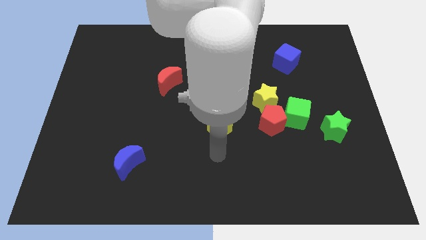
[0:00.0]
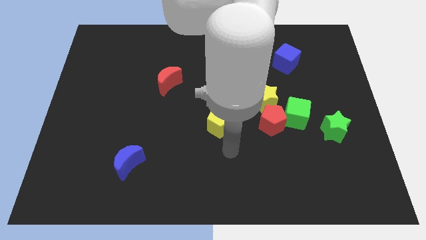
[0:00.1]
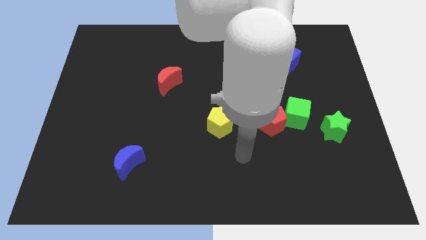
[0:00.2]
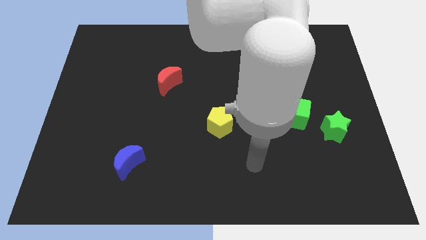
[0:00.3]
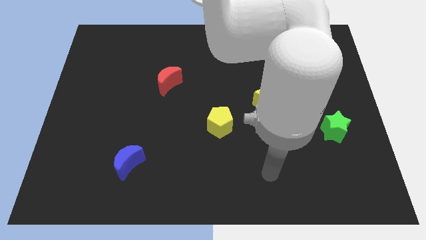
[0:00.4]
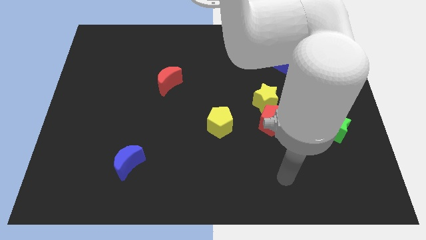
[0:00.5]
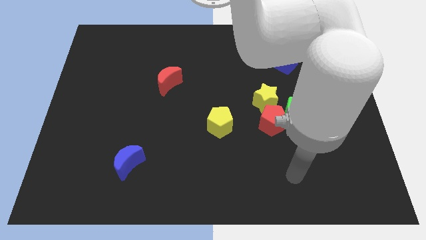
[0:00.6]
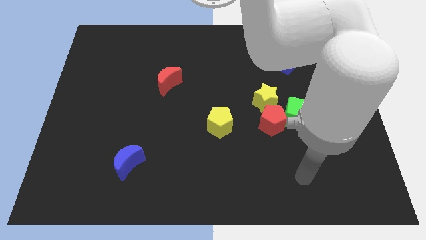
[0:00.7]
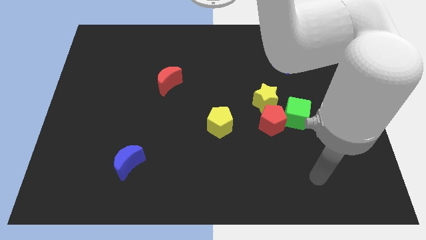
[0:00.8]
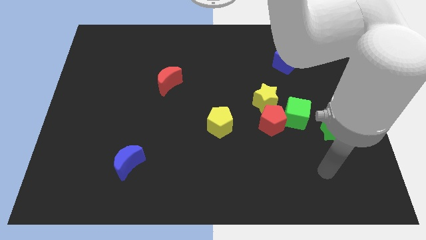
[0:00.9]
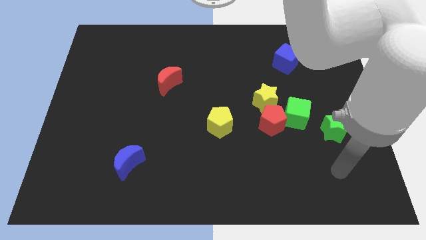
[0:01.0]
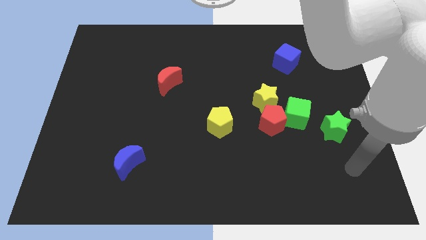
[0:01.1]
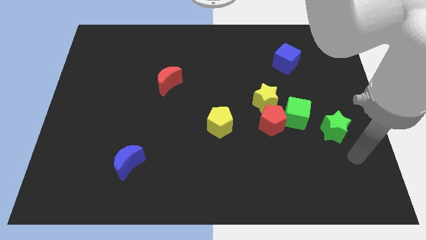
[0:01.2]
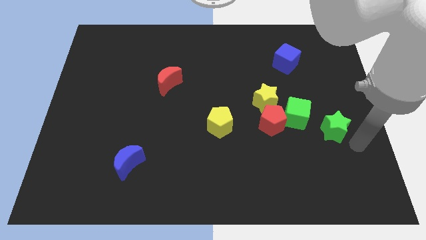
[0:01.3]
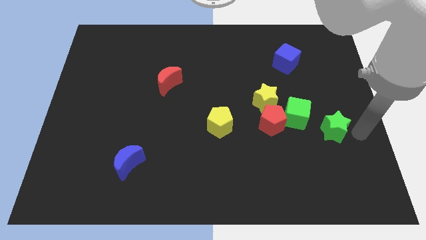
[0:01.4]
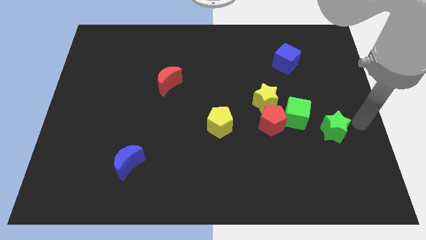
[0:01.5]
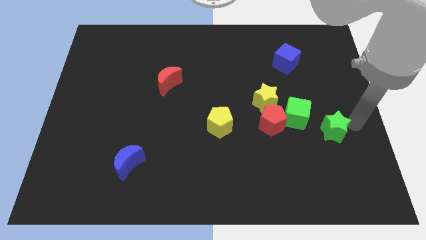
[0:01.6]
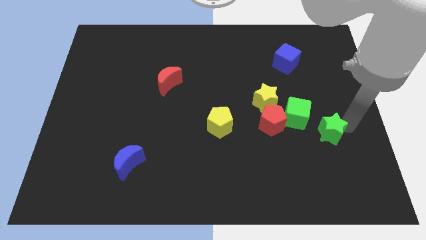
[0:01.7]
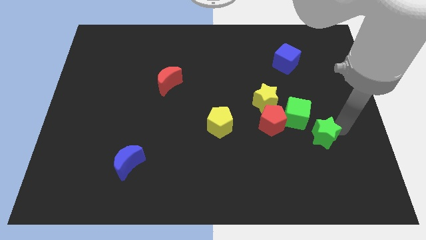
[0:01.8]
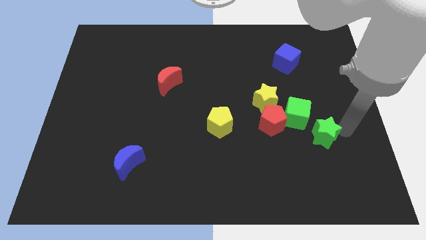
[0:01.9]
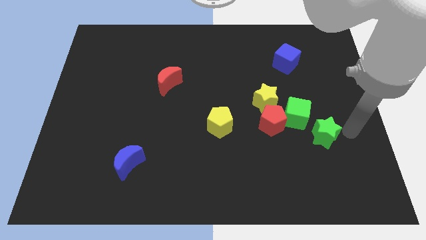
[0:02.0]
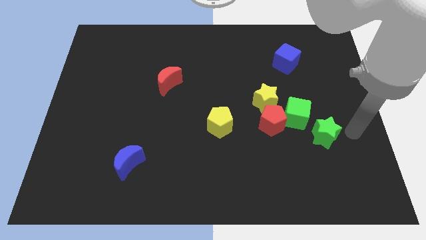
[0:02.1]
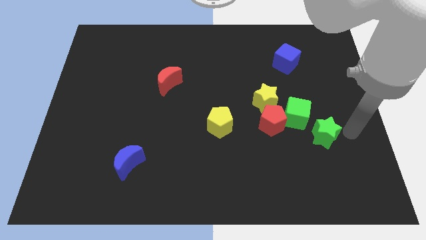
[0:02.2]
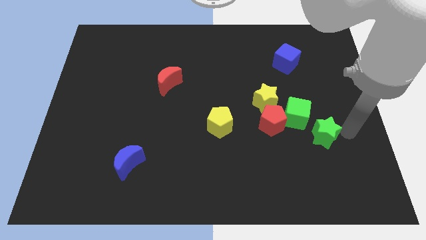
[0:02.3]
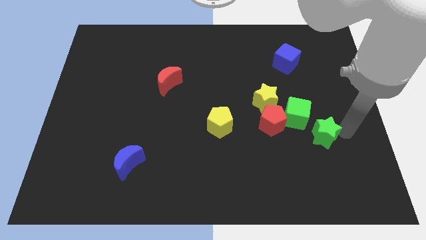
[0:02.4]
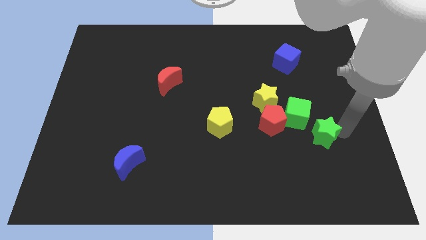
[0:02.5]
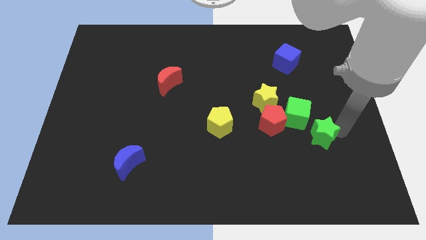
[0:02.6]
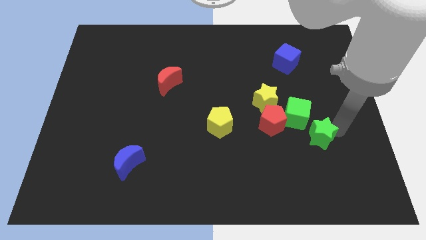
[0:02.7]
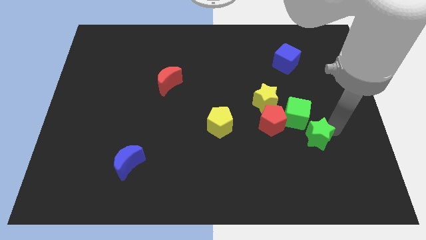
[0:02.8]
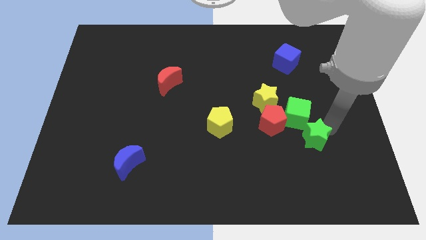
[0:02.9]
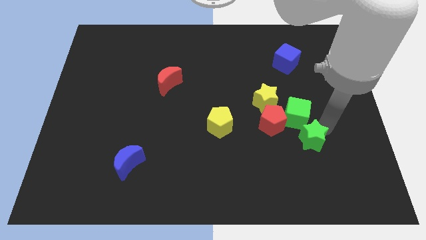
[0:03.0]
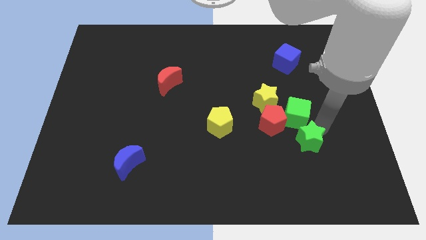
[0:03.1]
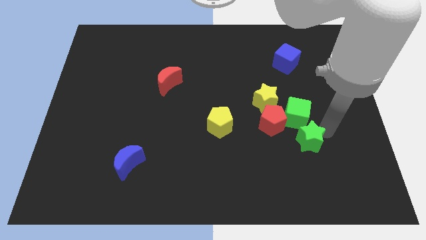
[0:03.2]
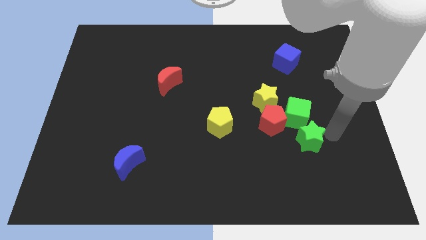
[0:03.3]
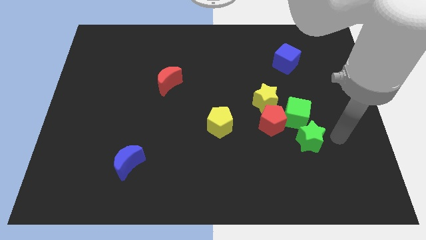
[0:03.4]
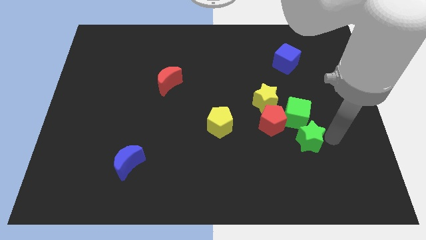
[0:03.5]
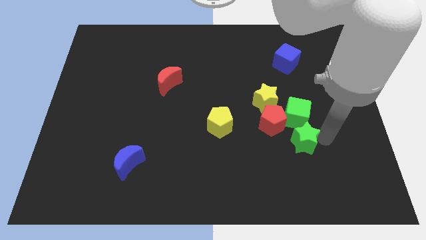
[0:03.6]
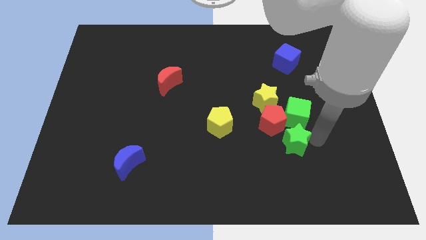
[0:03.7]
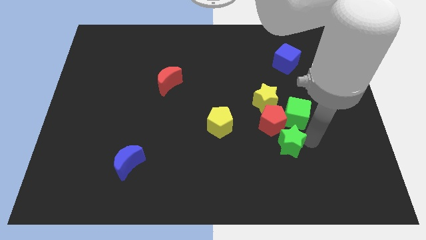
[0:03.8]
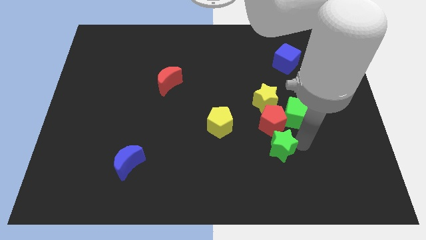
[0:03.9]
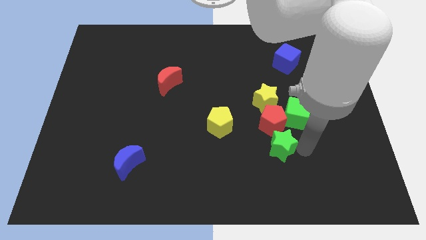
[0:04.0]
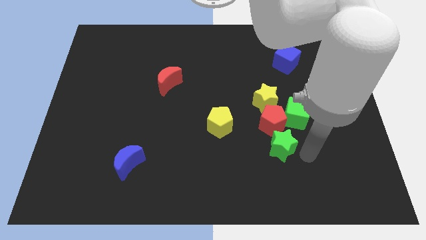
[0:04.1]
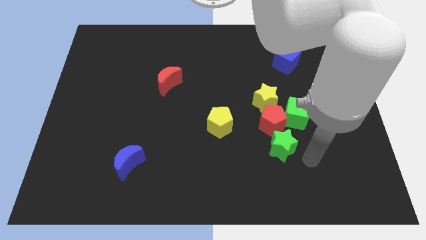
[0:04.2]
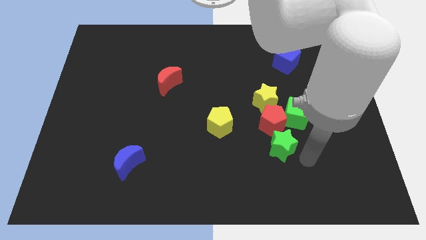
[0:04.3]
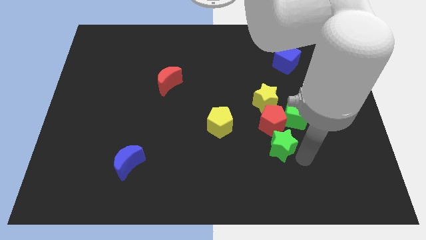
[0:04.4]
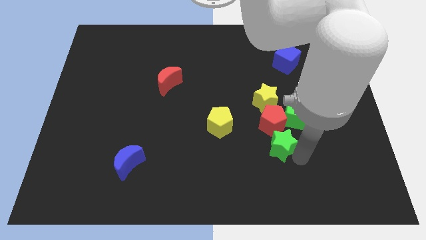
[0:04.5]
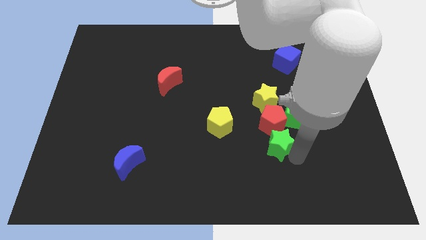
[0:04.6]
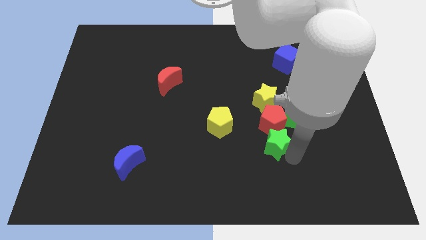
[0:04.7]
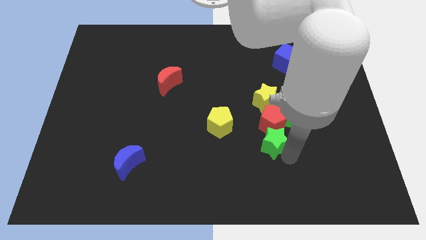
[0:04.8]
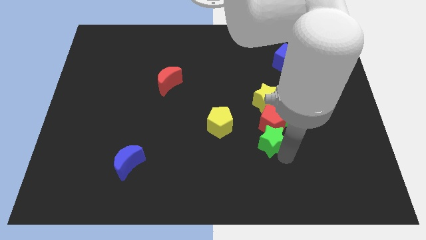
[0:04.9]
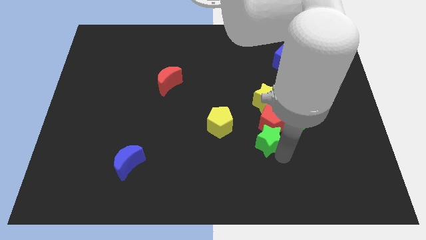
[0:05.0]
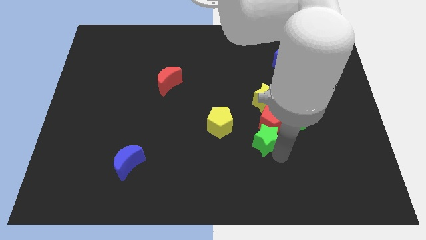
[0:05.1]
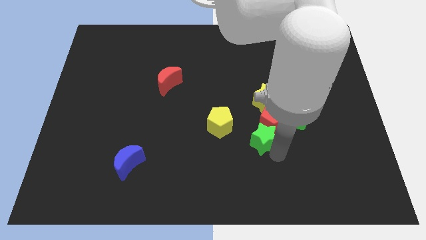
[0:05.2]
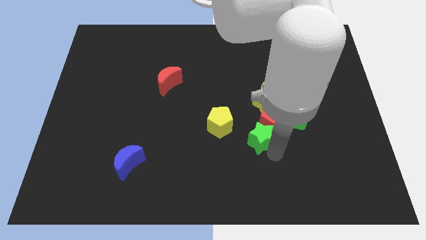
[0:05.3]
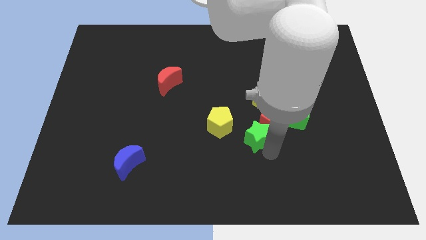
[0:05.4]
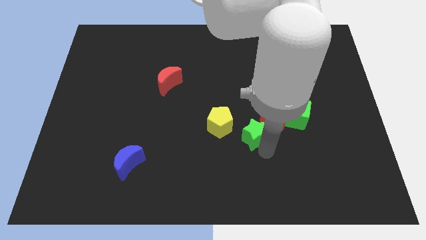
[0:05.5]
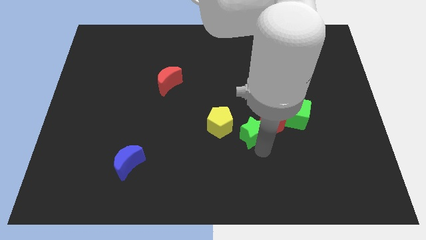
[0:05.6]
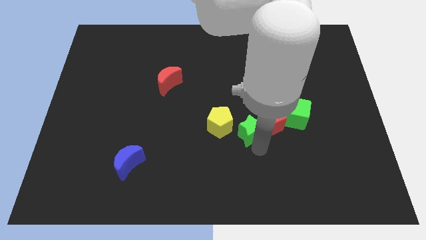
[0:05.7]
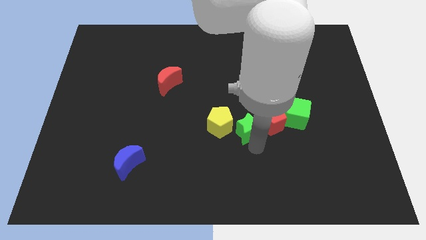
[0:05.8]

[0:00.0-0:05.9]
slide the green star to the middle of the board

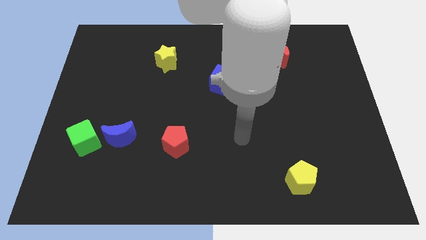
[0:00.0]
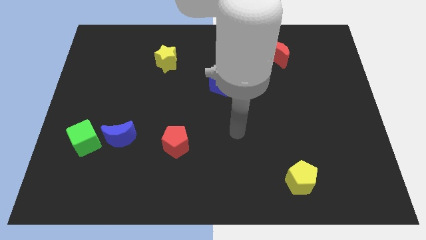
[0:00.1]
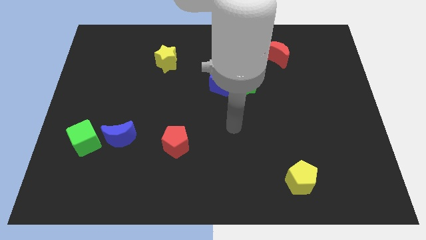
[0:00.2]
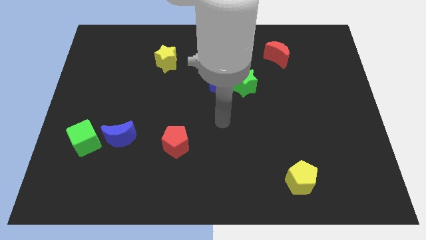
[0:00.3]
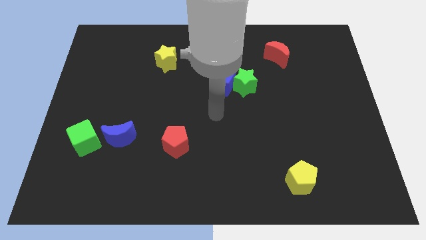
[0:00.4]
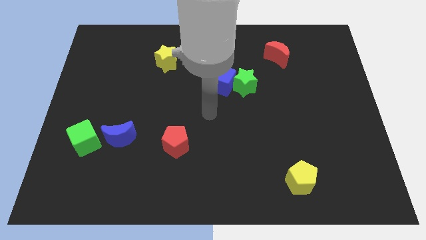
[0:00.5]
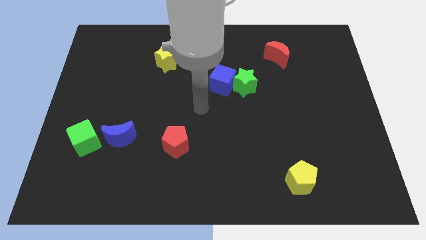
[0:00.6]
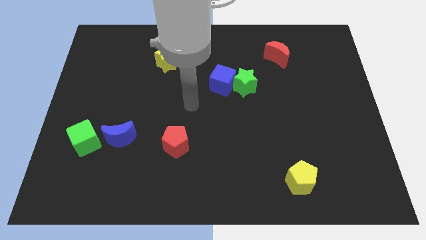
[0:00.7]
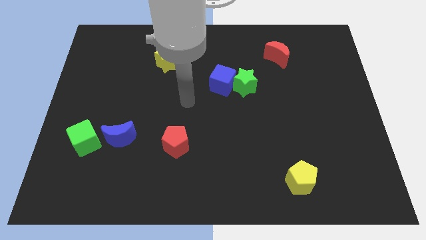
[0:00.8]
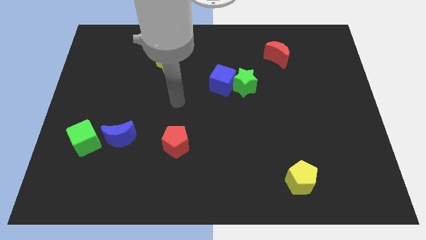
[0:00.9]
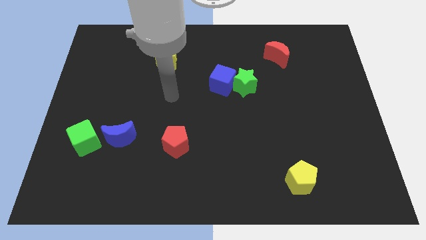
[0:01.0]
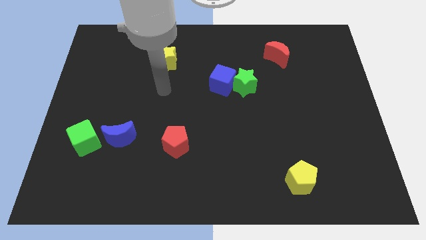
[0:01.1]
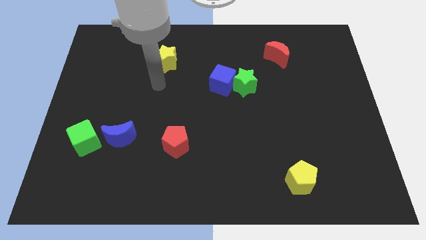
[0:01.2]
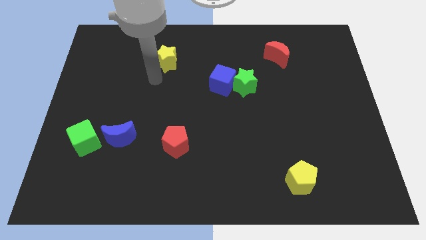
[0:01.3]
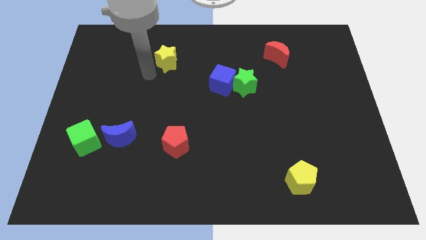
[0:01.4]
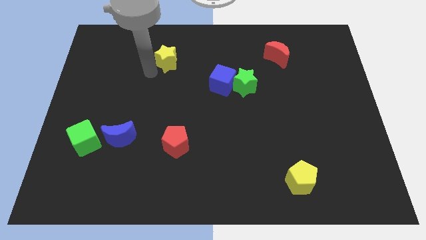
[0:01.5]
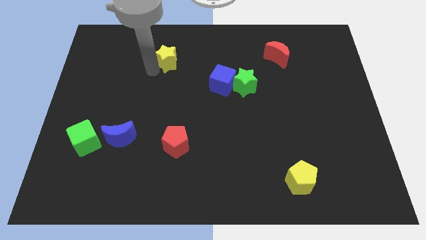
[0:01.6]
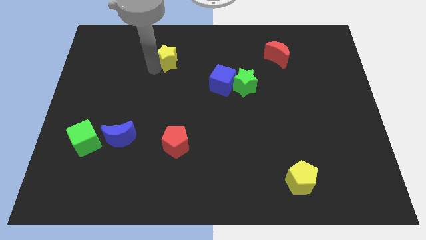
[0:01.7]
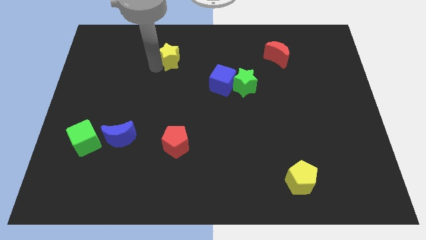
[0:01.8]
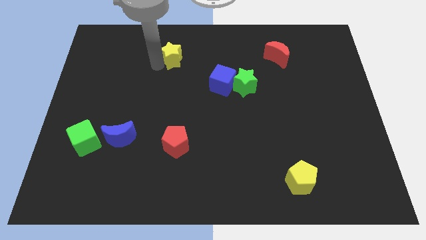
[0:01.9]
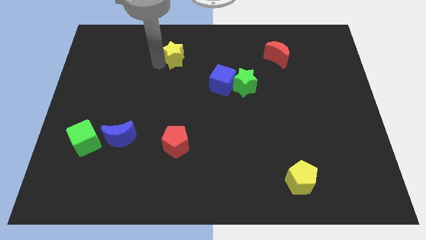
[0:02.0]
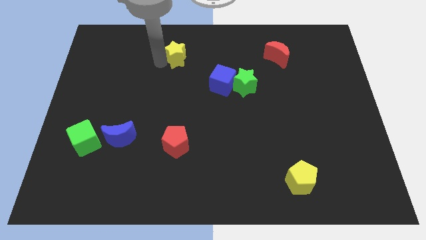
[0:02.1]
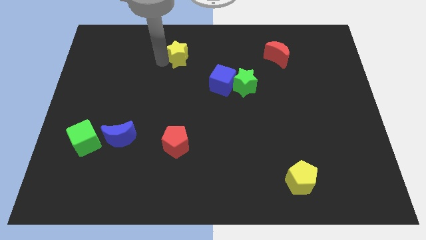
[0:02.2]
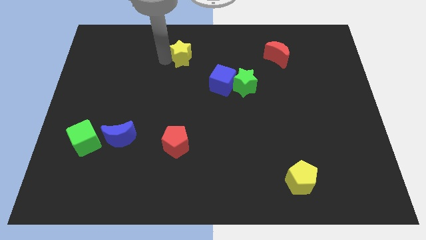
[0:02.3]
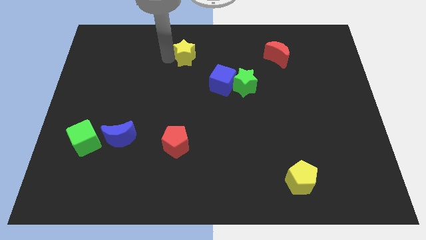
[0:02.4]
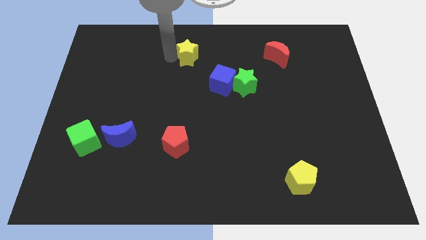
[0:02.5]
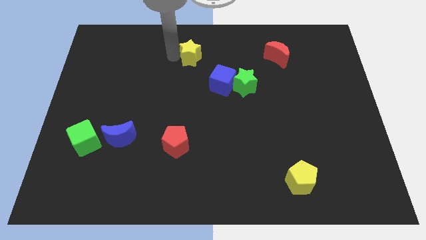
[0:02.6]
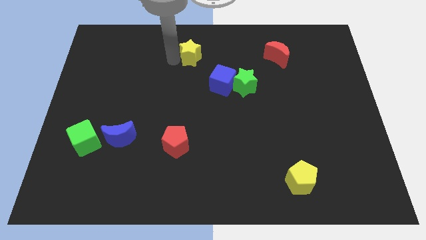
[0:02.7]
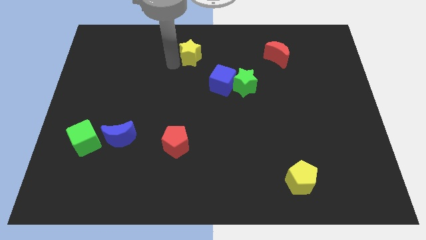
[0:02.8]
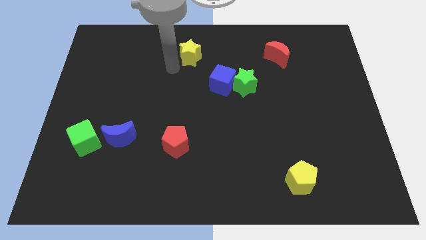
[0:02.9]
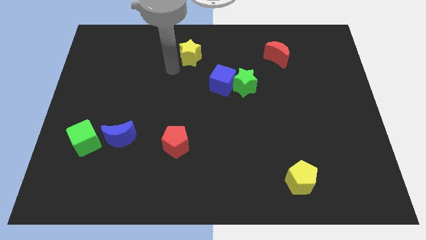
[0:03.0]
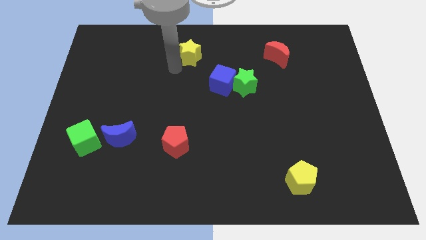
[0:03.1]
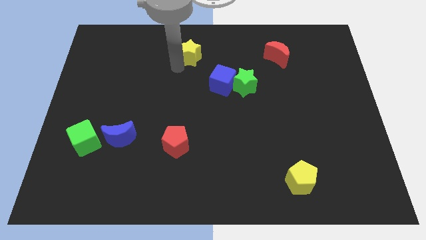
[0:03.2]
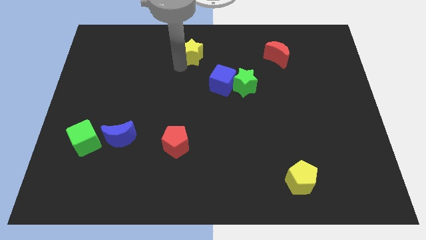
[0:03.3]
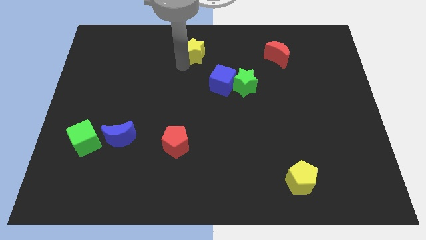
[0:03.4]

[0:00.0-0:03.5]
push the yellow star to the top
